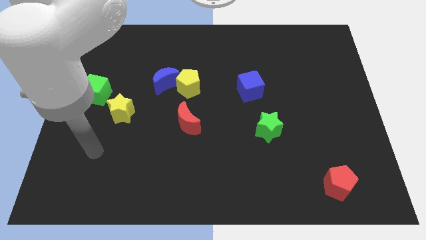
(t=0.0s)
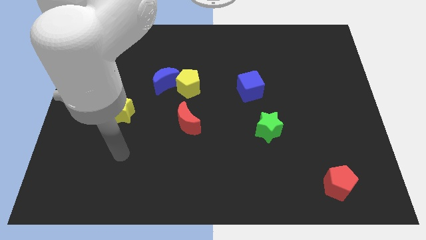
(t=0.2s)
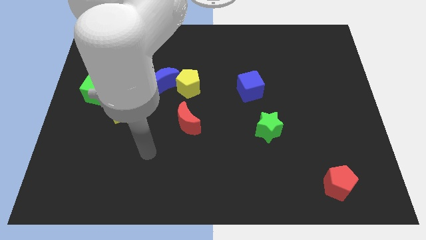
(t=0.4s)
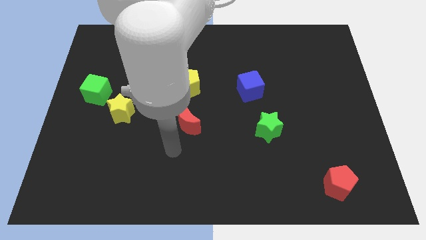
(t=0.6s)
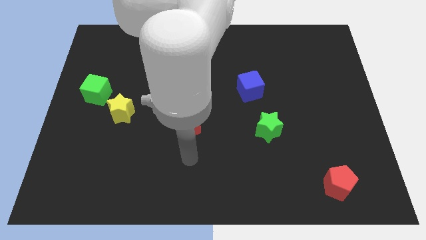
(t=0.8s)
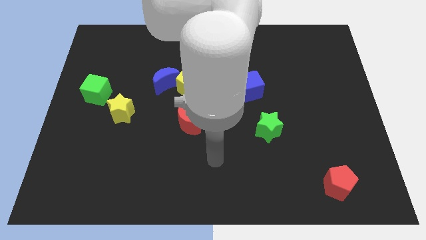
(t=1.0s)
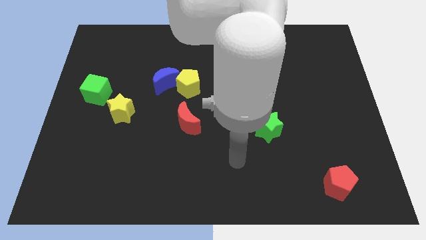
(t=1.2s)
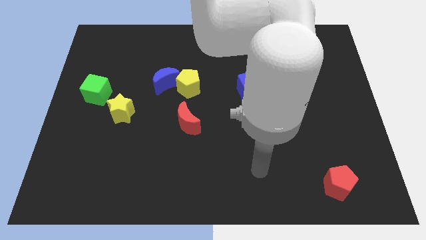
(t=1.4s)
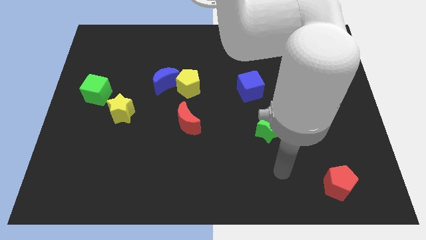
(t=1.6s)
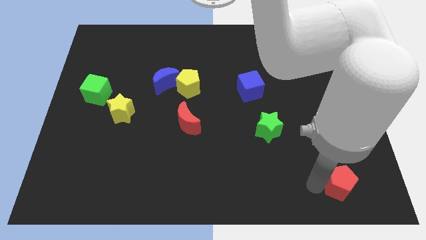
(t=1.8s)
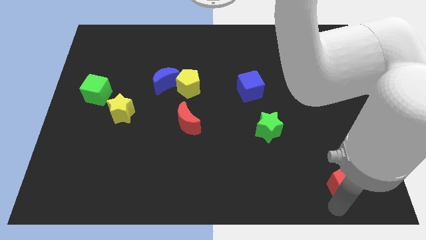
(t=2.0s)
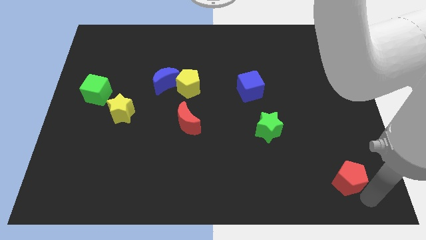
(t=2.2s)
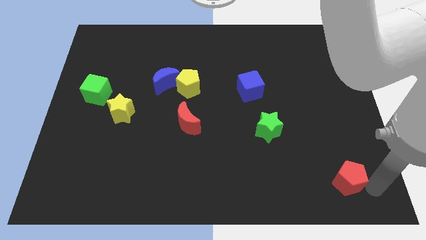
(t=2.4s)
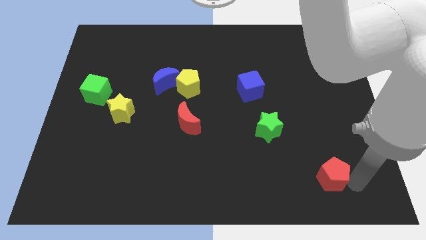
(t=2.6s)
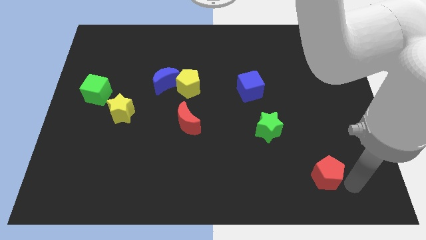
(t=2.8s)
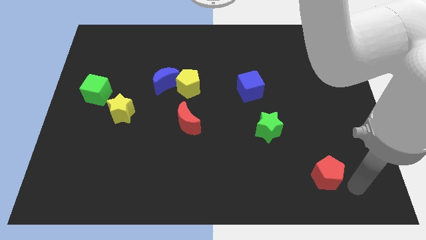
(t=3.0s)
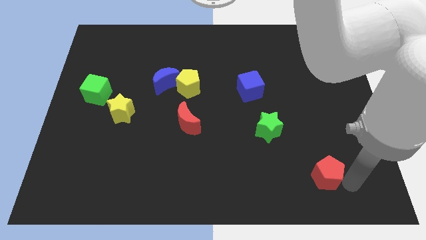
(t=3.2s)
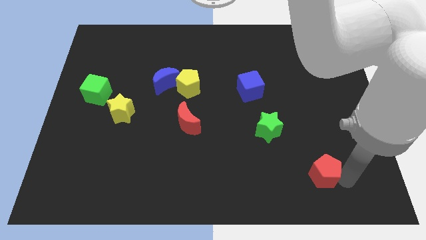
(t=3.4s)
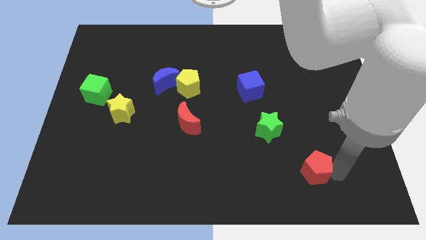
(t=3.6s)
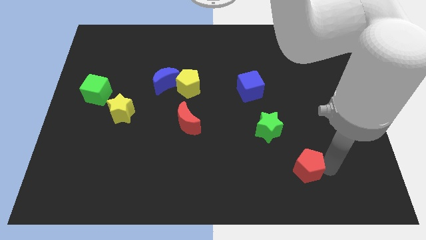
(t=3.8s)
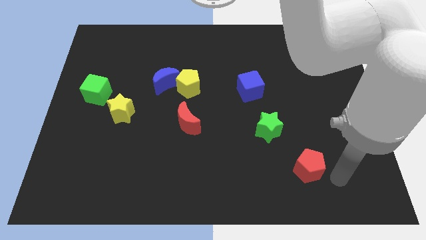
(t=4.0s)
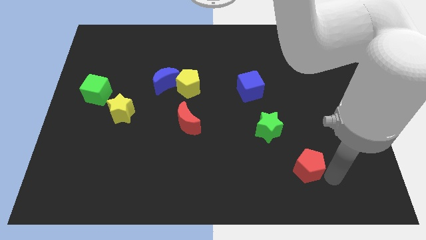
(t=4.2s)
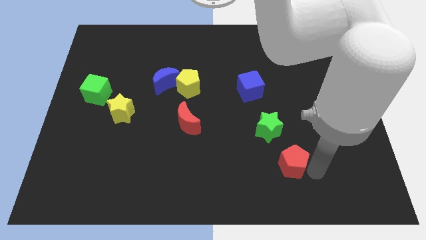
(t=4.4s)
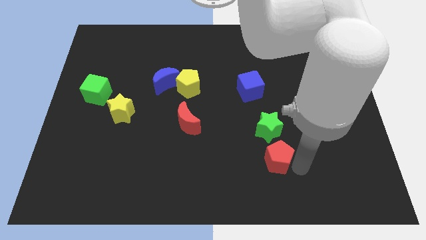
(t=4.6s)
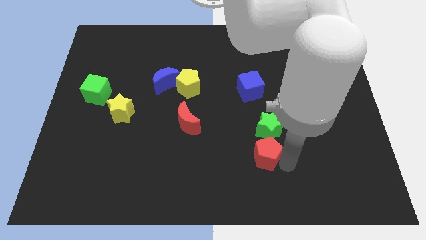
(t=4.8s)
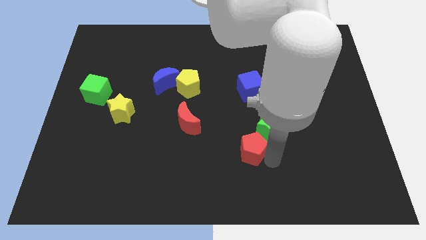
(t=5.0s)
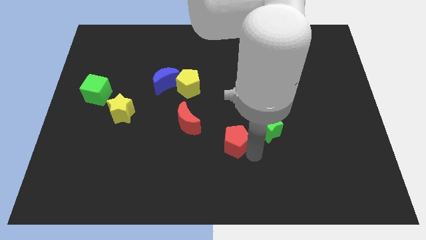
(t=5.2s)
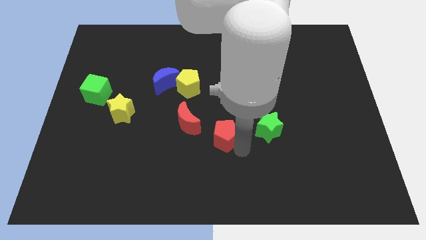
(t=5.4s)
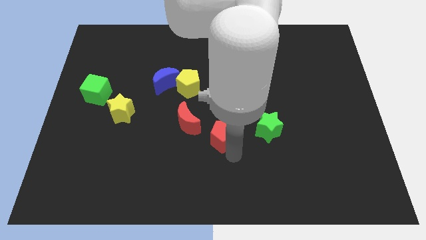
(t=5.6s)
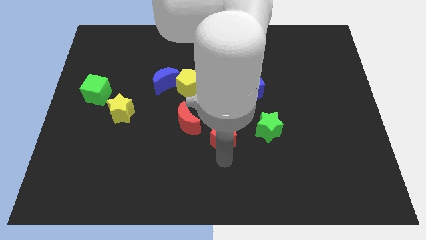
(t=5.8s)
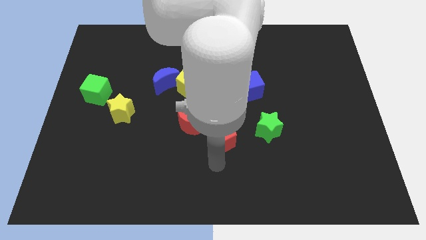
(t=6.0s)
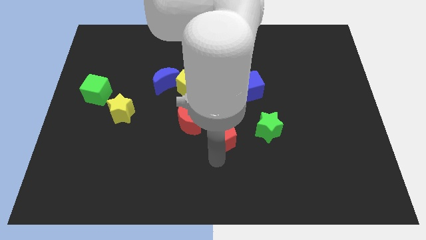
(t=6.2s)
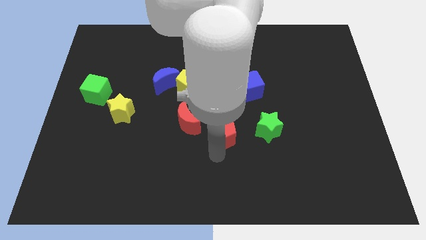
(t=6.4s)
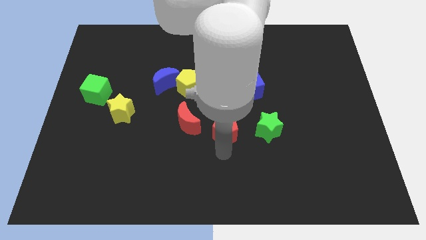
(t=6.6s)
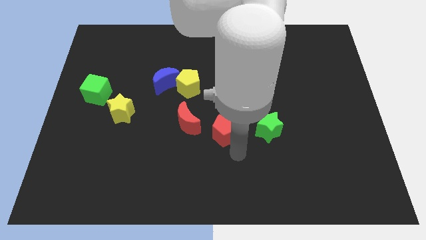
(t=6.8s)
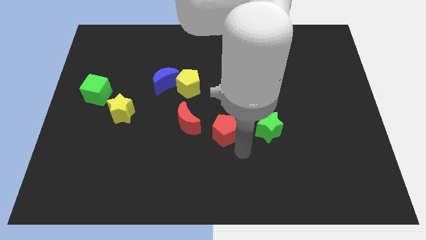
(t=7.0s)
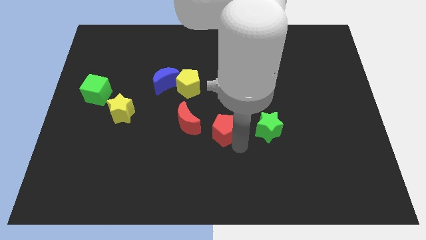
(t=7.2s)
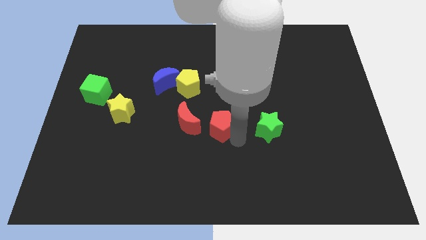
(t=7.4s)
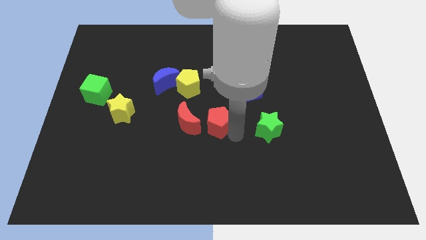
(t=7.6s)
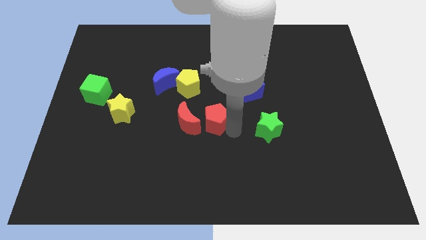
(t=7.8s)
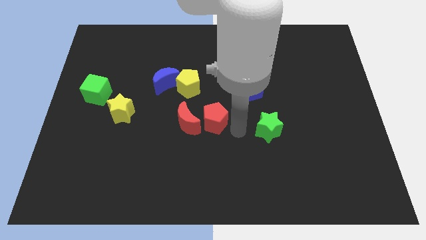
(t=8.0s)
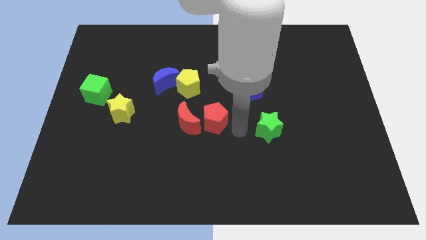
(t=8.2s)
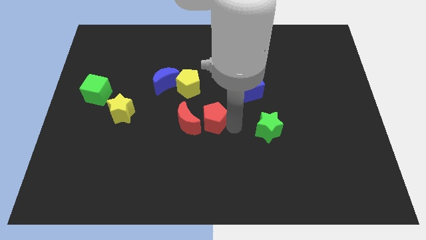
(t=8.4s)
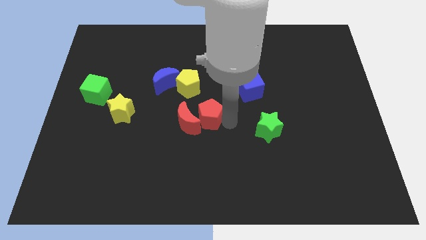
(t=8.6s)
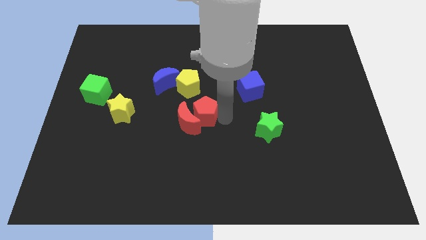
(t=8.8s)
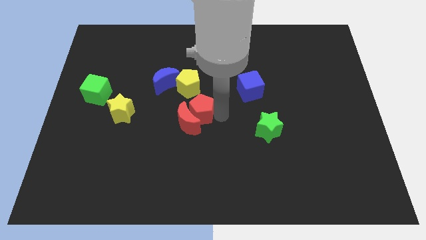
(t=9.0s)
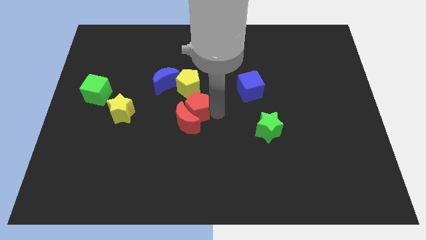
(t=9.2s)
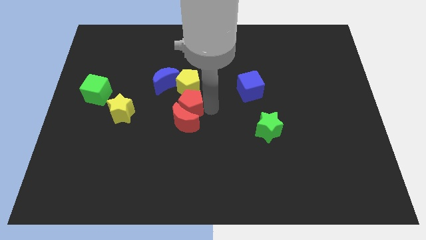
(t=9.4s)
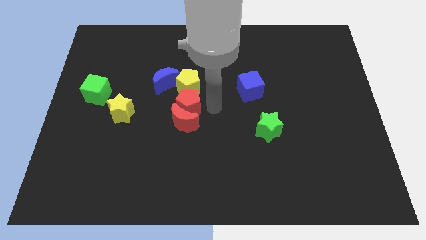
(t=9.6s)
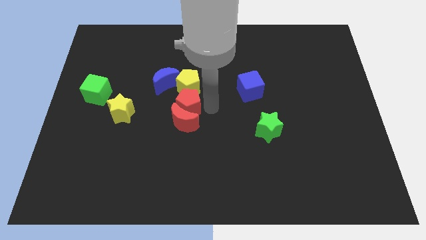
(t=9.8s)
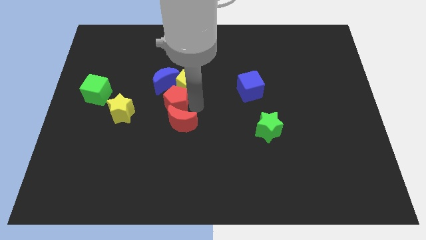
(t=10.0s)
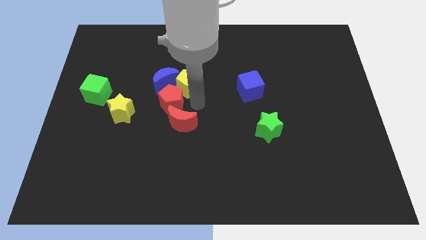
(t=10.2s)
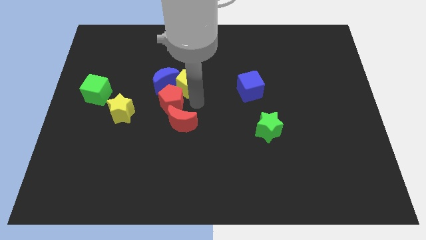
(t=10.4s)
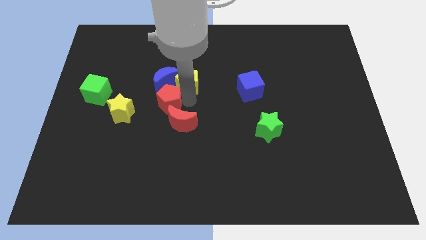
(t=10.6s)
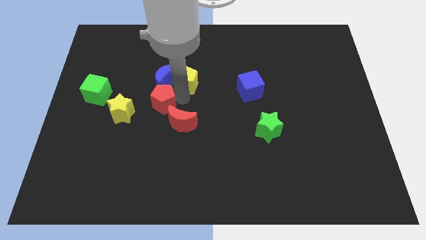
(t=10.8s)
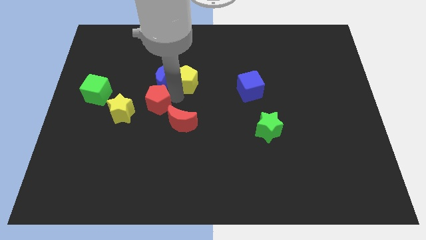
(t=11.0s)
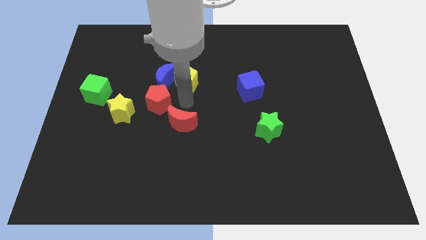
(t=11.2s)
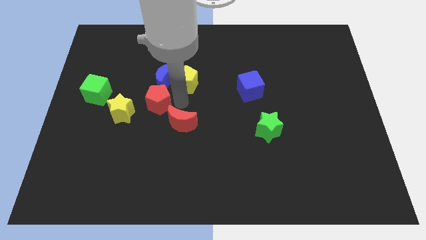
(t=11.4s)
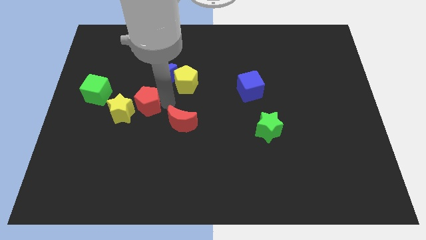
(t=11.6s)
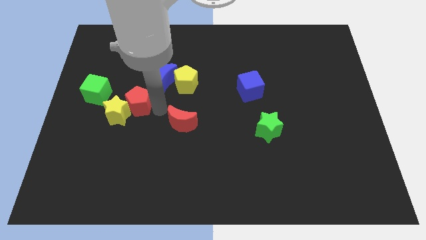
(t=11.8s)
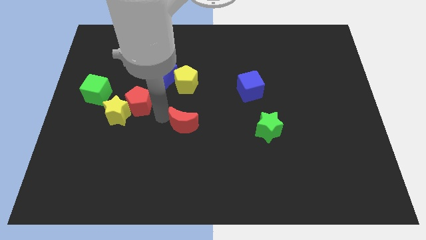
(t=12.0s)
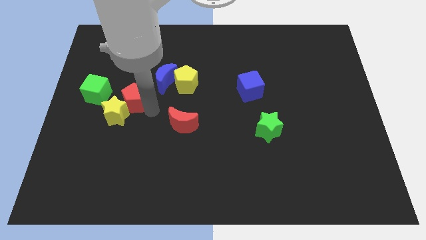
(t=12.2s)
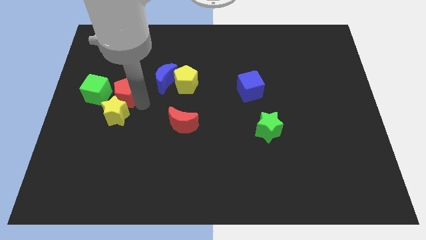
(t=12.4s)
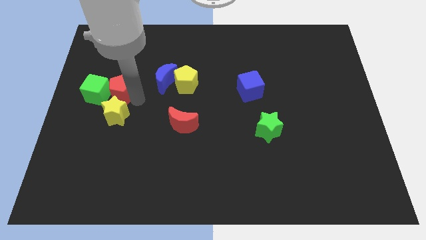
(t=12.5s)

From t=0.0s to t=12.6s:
put the red pentagon close to the green cube

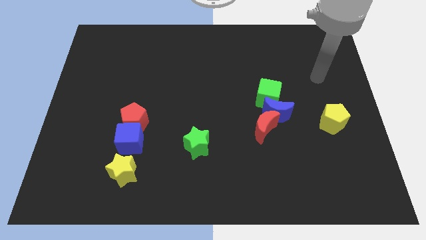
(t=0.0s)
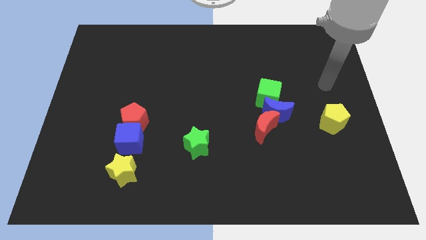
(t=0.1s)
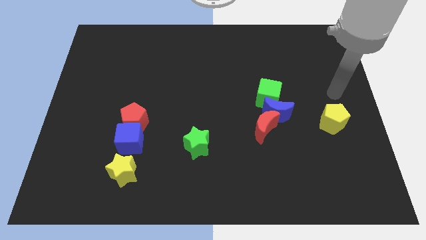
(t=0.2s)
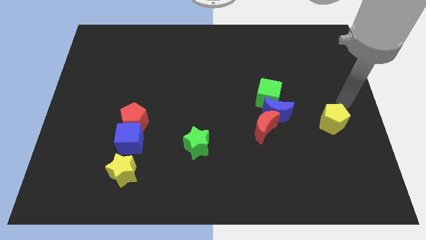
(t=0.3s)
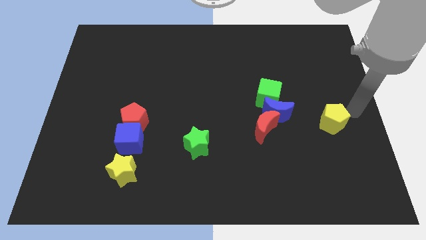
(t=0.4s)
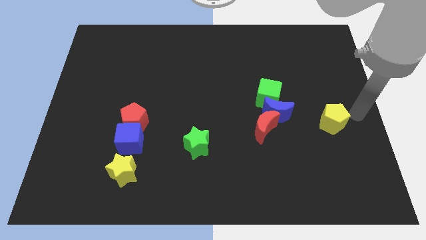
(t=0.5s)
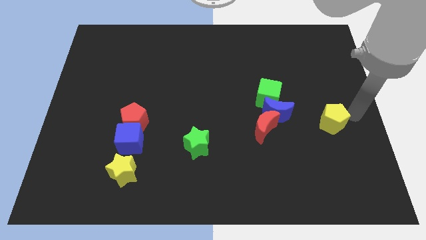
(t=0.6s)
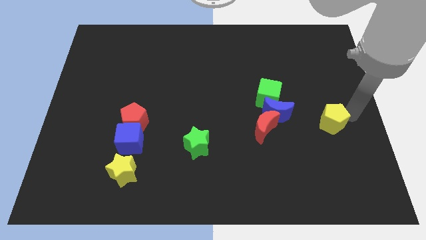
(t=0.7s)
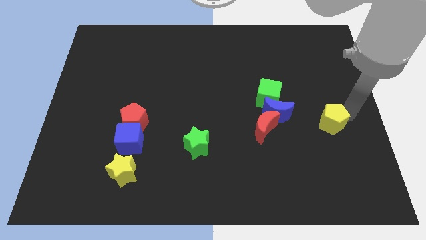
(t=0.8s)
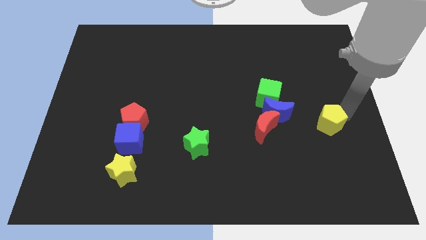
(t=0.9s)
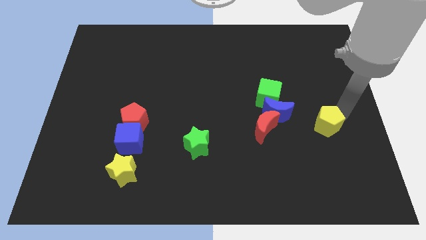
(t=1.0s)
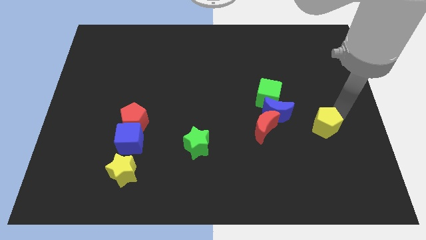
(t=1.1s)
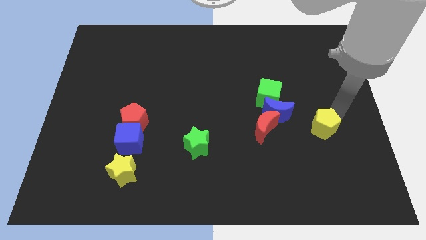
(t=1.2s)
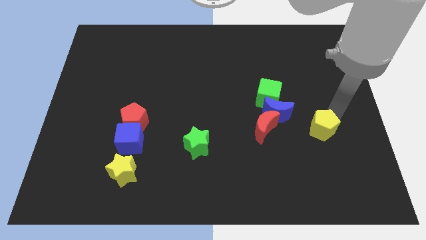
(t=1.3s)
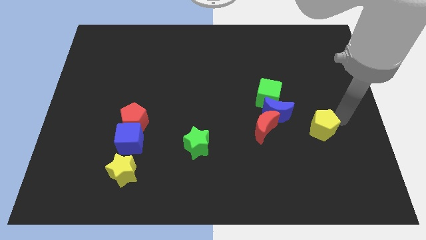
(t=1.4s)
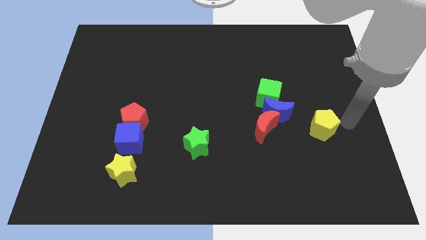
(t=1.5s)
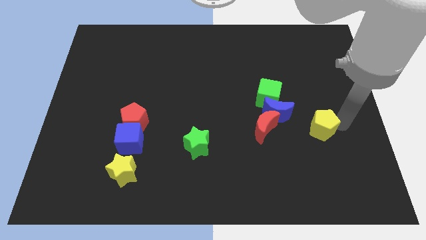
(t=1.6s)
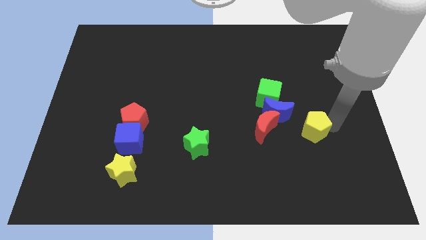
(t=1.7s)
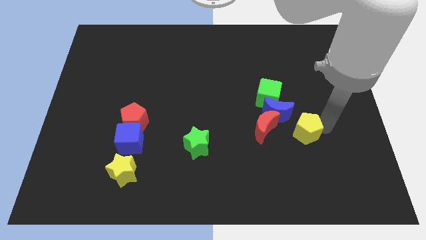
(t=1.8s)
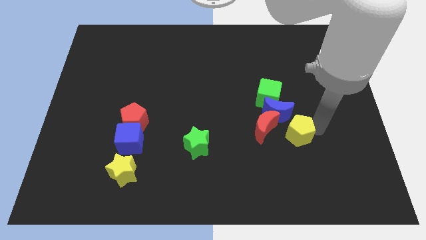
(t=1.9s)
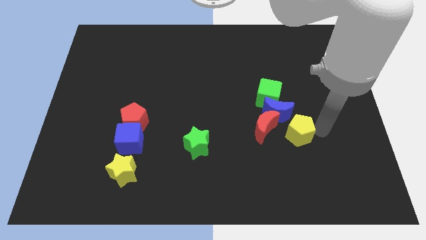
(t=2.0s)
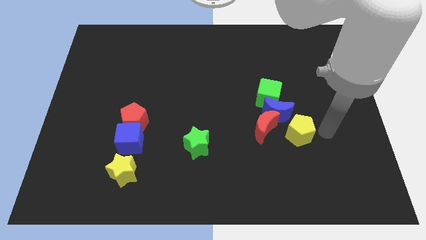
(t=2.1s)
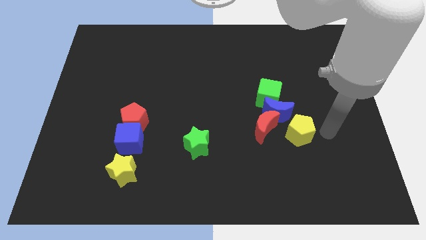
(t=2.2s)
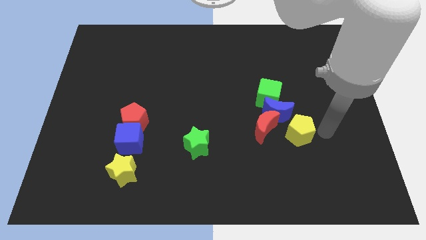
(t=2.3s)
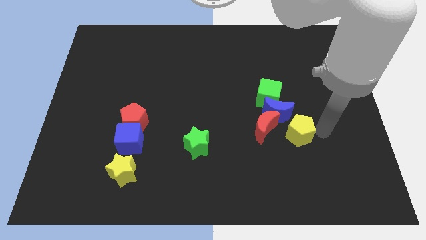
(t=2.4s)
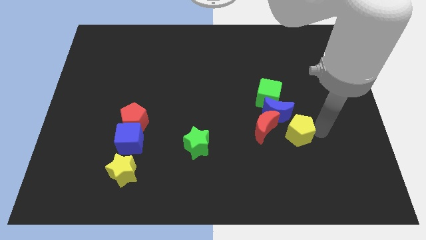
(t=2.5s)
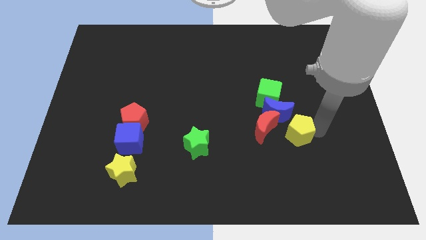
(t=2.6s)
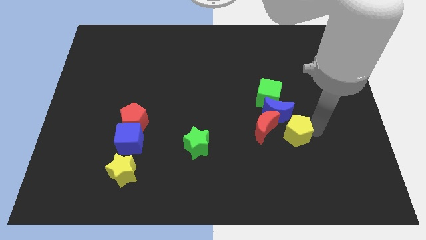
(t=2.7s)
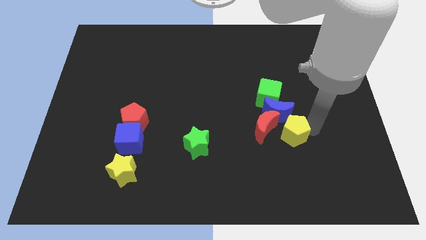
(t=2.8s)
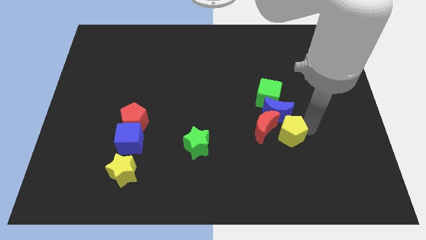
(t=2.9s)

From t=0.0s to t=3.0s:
put the yellow pentagon close to the red moon
